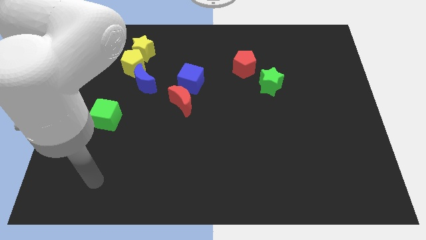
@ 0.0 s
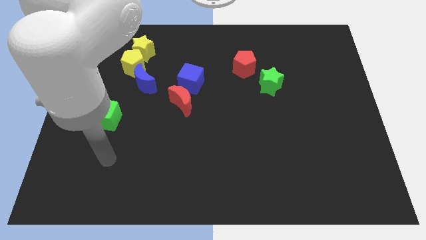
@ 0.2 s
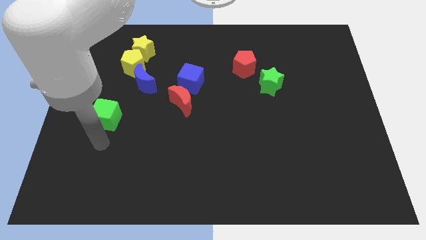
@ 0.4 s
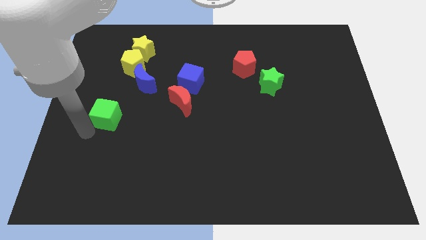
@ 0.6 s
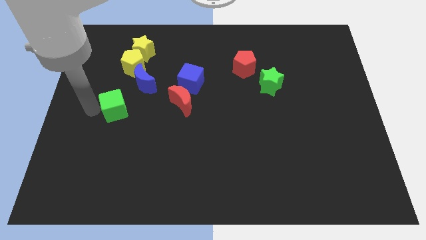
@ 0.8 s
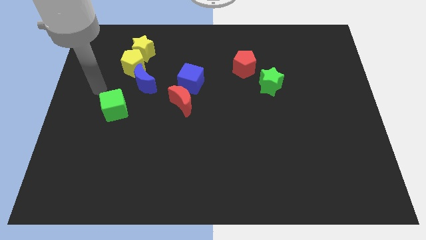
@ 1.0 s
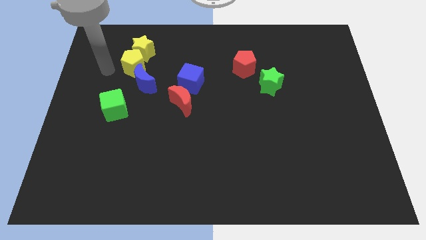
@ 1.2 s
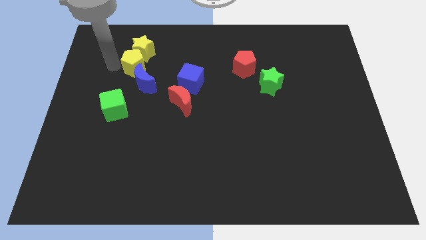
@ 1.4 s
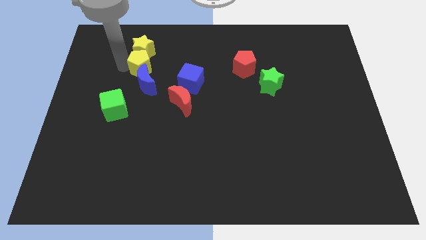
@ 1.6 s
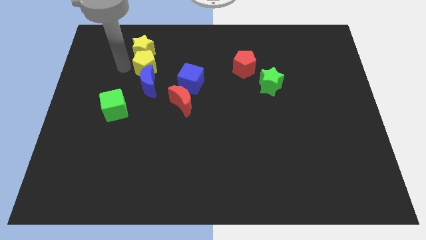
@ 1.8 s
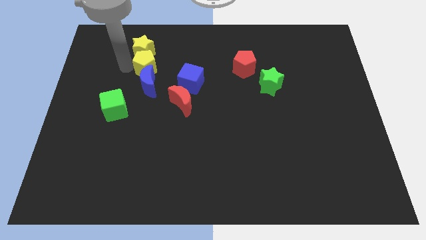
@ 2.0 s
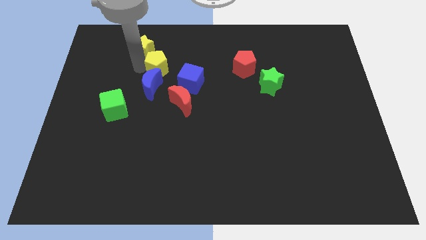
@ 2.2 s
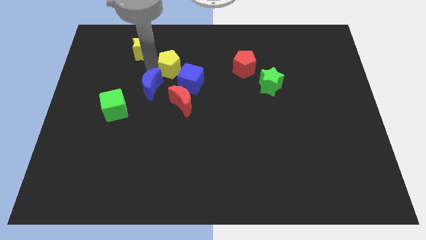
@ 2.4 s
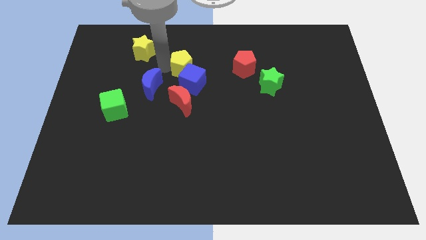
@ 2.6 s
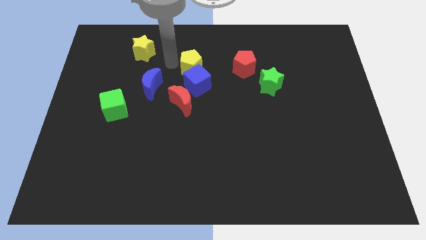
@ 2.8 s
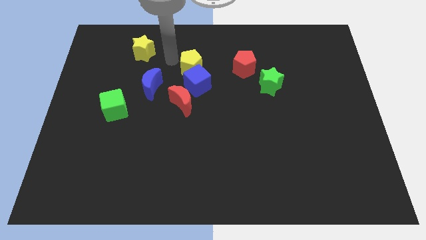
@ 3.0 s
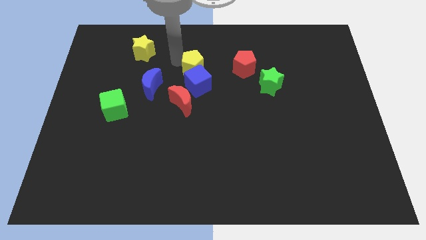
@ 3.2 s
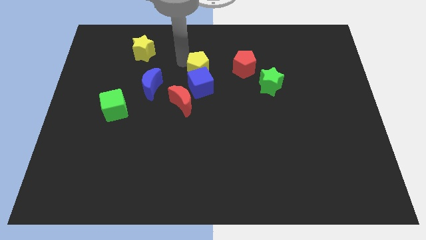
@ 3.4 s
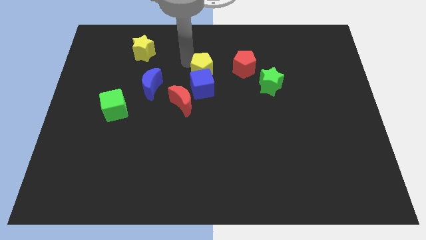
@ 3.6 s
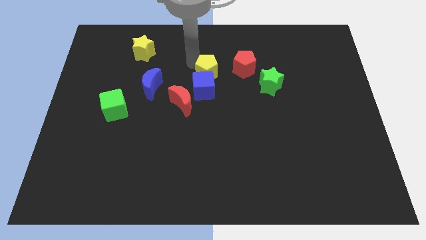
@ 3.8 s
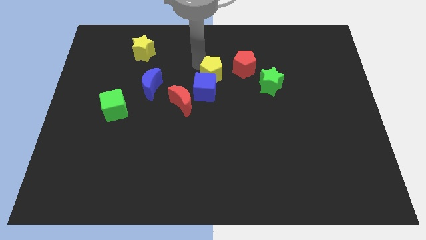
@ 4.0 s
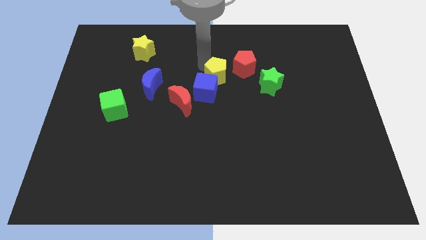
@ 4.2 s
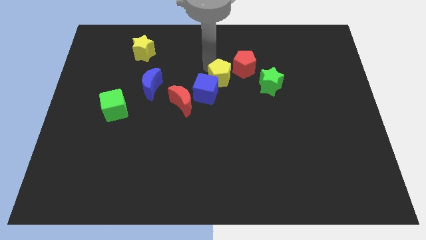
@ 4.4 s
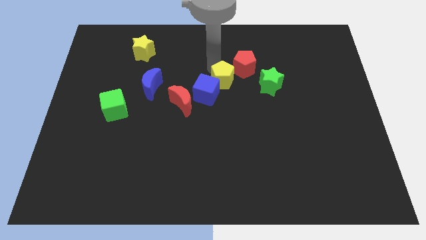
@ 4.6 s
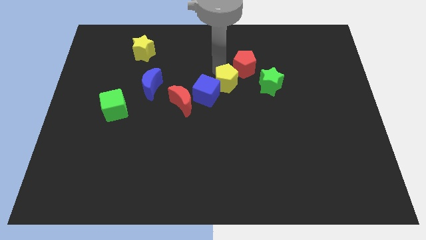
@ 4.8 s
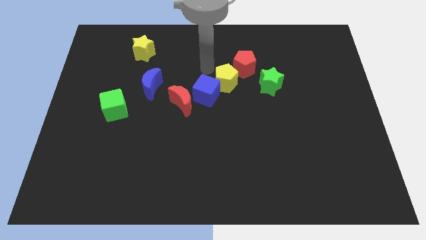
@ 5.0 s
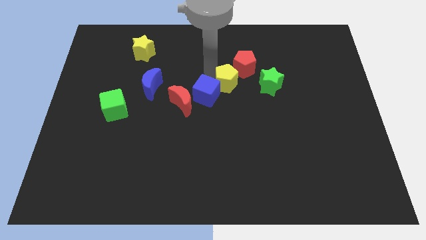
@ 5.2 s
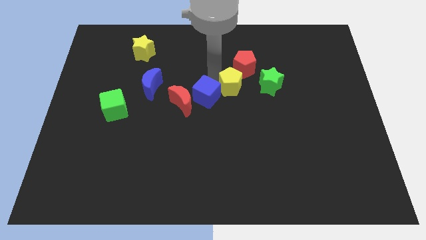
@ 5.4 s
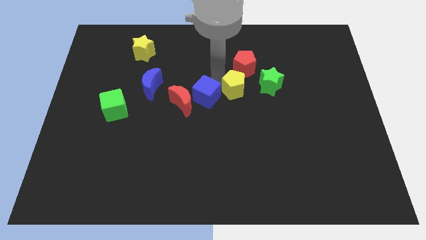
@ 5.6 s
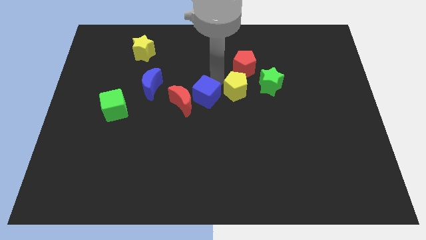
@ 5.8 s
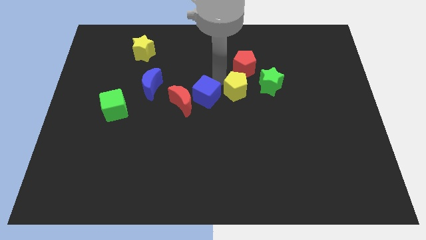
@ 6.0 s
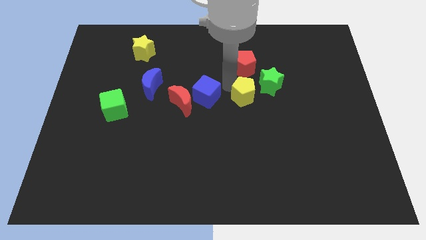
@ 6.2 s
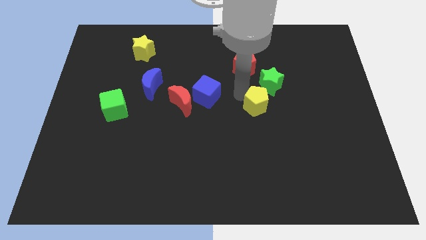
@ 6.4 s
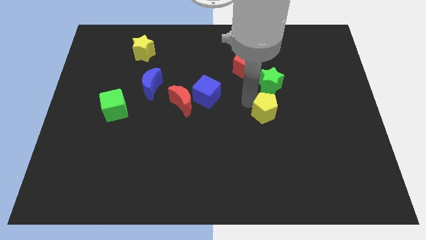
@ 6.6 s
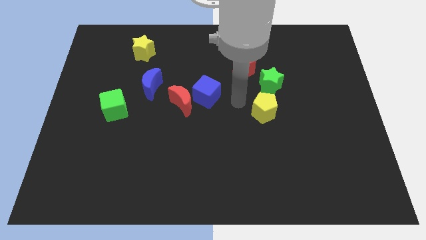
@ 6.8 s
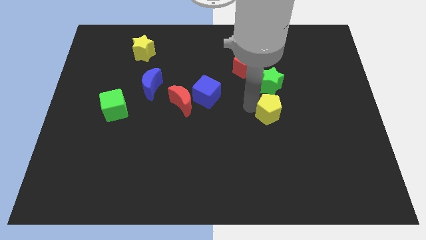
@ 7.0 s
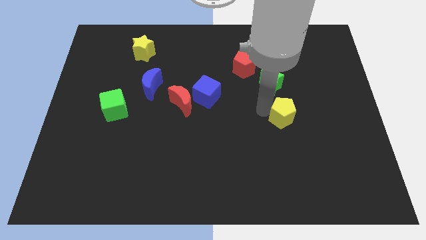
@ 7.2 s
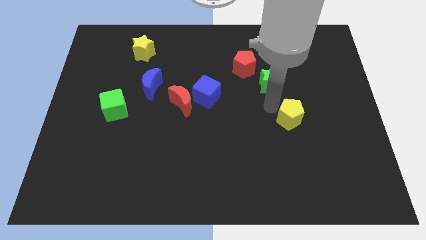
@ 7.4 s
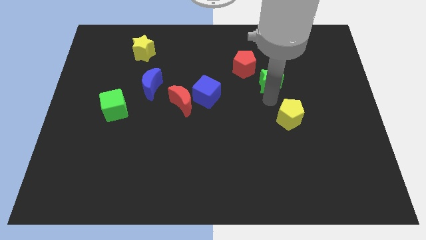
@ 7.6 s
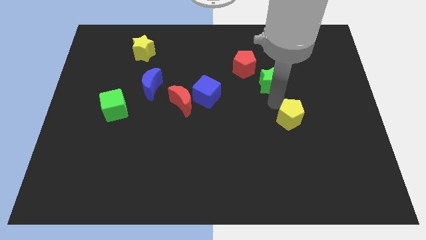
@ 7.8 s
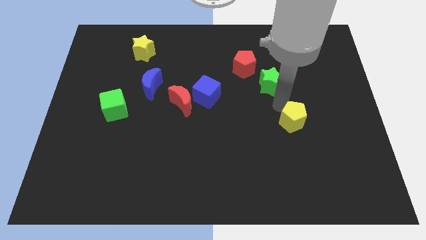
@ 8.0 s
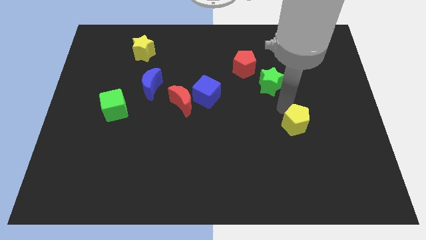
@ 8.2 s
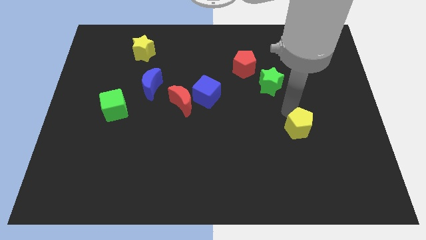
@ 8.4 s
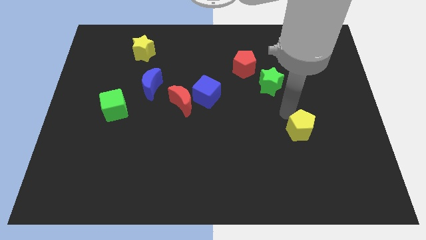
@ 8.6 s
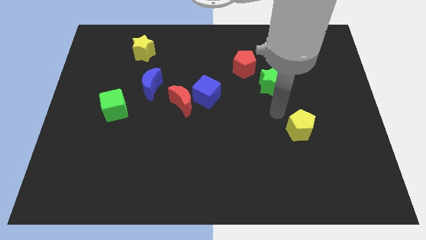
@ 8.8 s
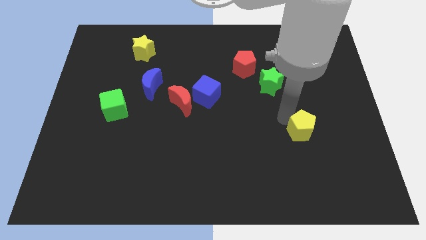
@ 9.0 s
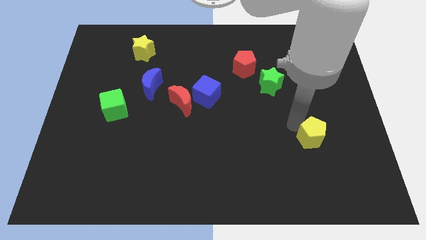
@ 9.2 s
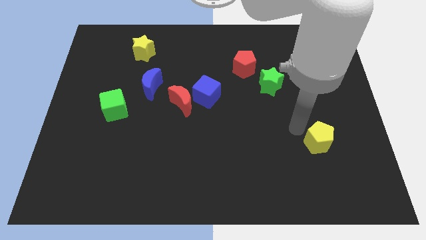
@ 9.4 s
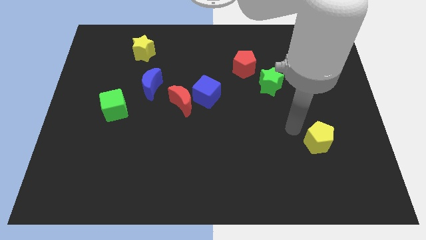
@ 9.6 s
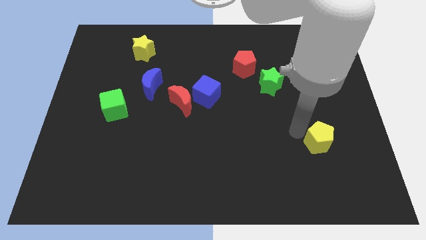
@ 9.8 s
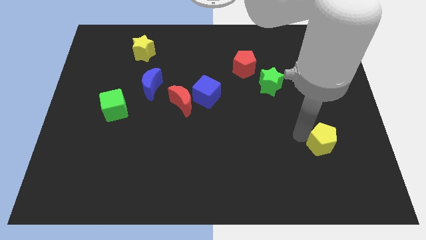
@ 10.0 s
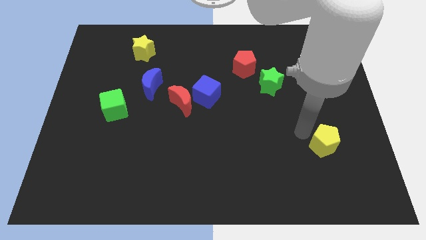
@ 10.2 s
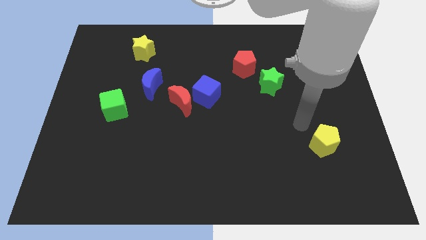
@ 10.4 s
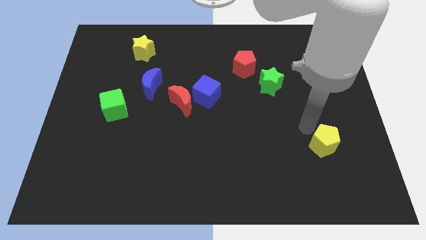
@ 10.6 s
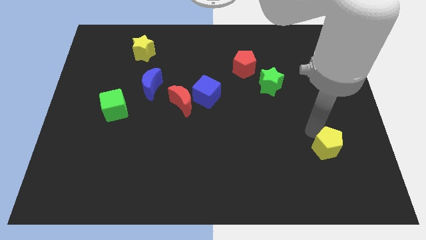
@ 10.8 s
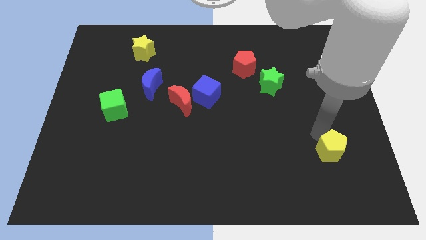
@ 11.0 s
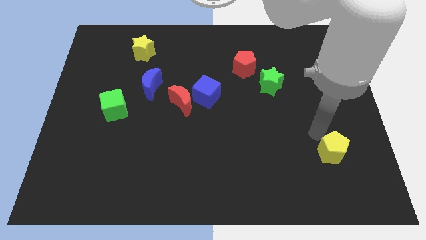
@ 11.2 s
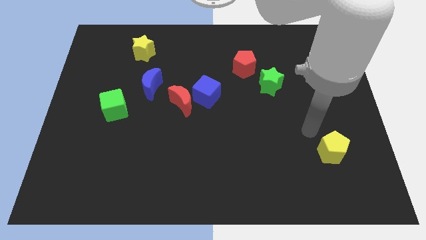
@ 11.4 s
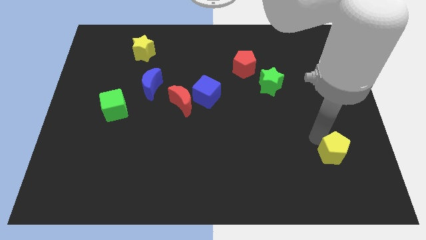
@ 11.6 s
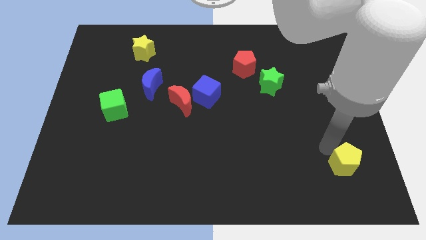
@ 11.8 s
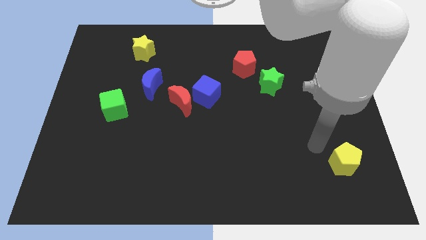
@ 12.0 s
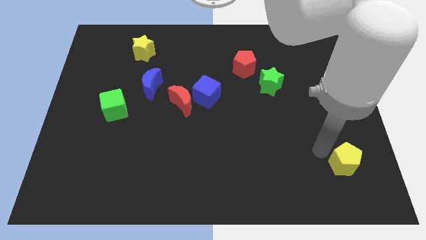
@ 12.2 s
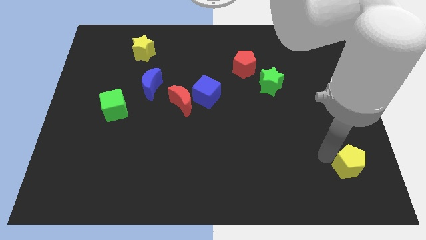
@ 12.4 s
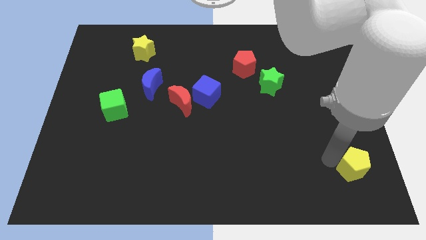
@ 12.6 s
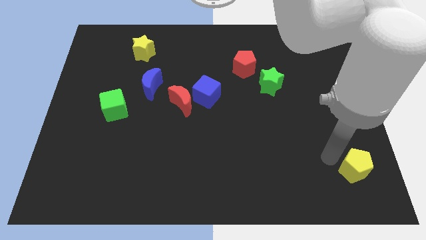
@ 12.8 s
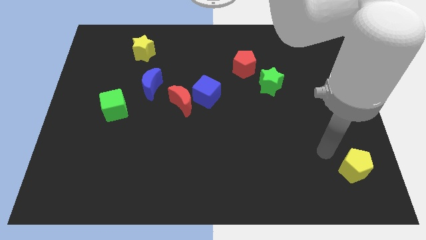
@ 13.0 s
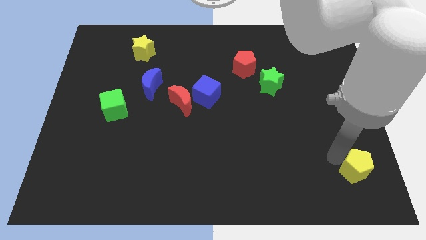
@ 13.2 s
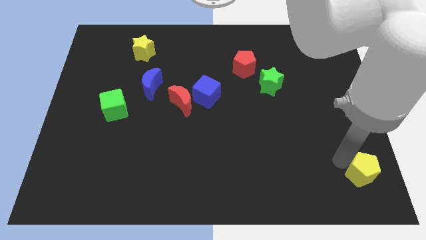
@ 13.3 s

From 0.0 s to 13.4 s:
put the yellow pentagon to the bottom right of the board
